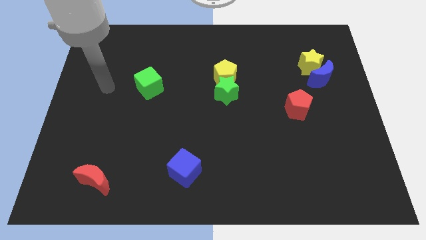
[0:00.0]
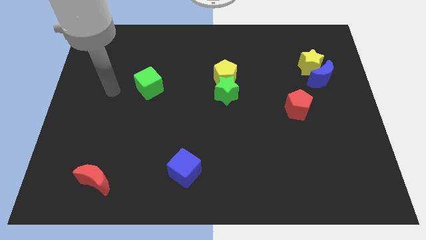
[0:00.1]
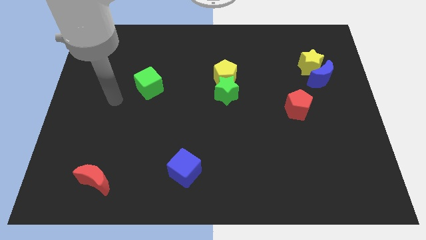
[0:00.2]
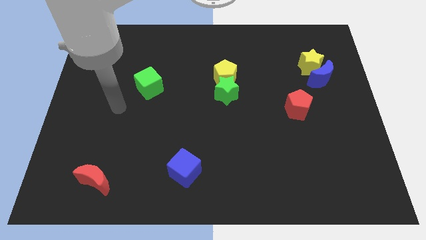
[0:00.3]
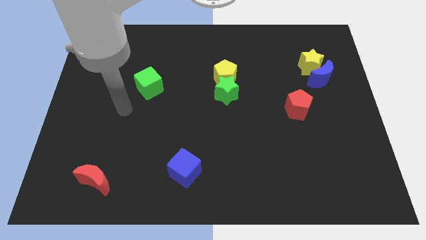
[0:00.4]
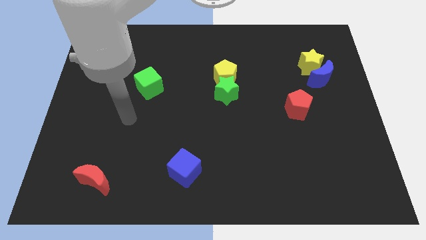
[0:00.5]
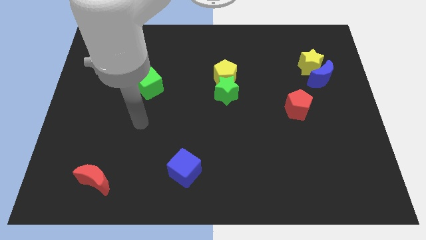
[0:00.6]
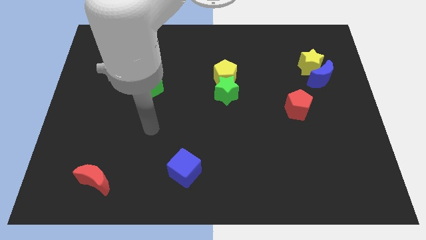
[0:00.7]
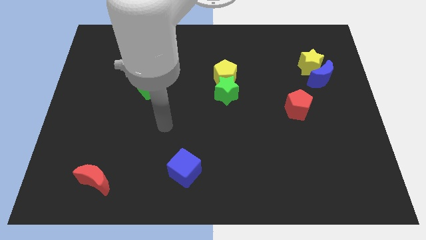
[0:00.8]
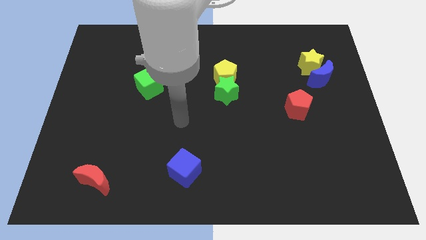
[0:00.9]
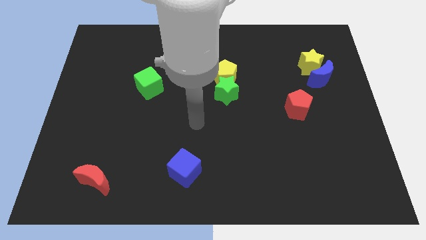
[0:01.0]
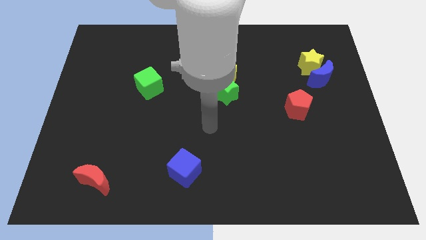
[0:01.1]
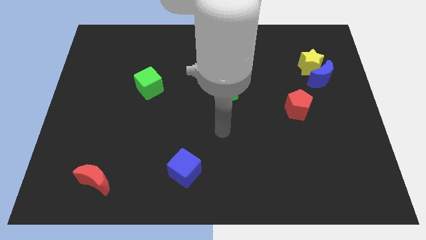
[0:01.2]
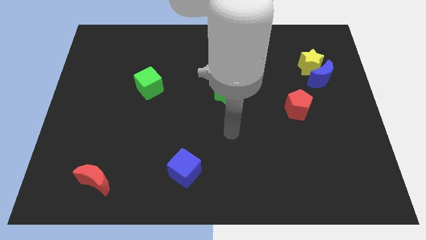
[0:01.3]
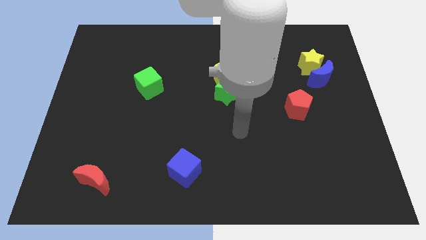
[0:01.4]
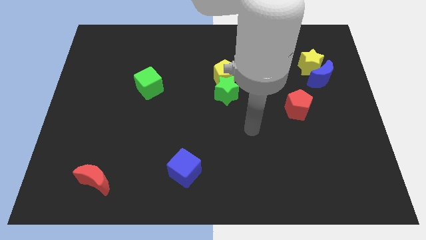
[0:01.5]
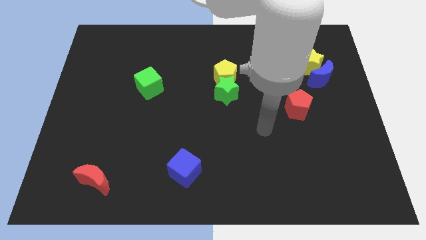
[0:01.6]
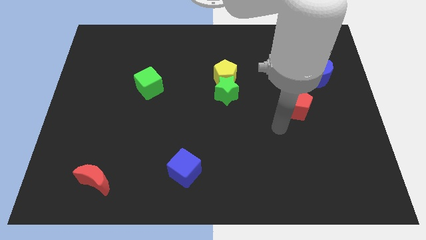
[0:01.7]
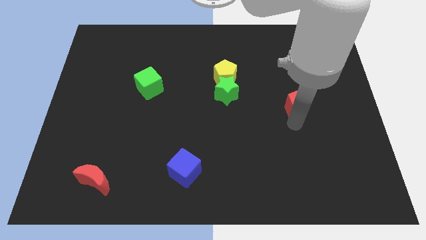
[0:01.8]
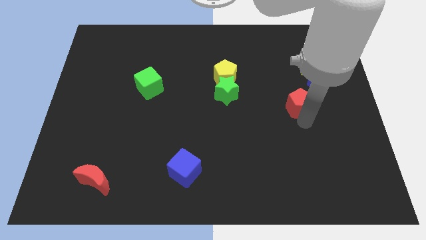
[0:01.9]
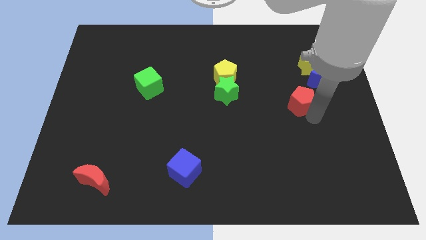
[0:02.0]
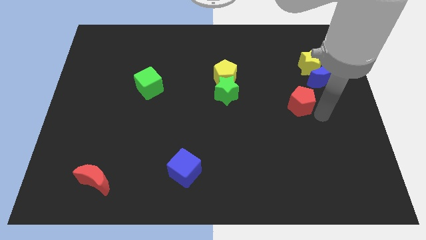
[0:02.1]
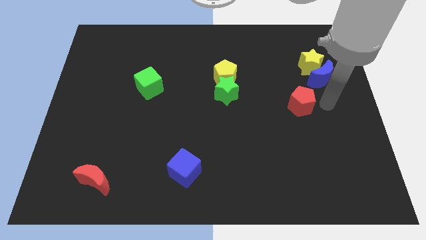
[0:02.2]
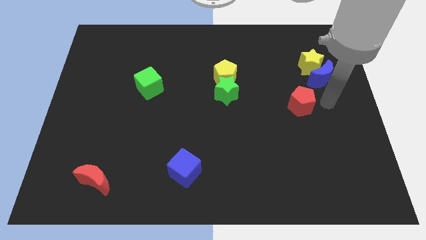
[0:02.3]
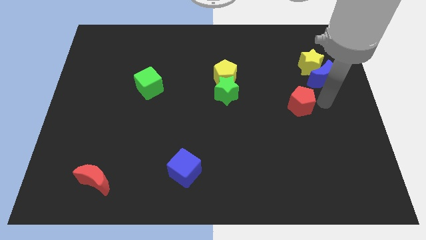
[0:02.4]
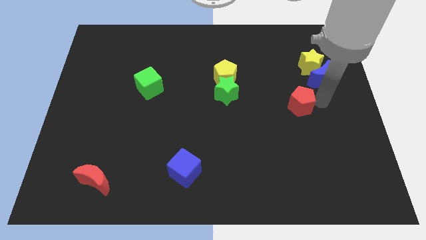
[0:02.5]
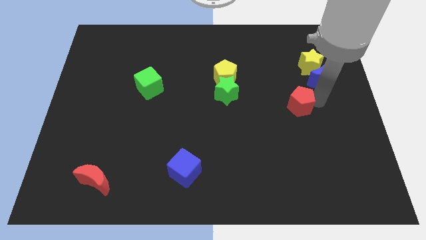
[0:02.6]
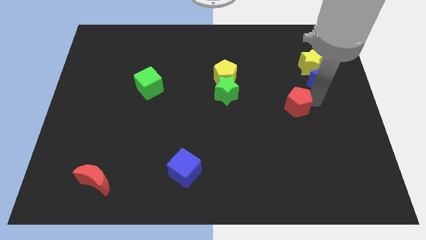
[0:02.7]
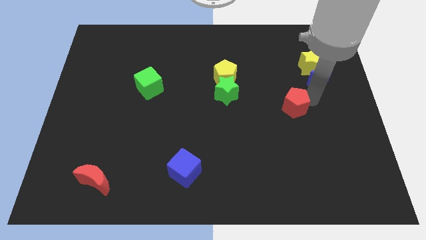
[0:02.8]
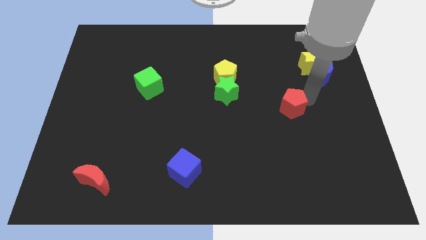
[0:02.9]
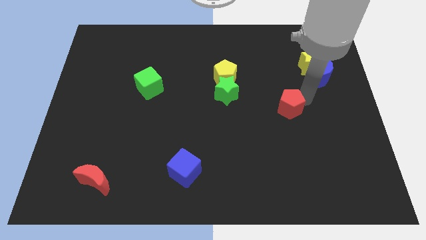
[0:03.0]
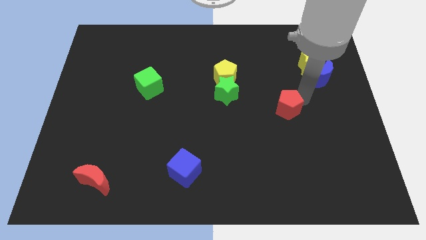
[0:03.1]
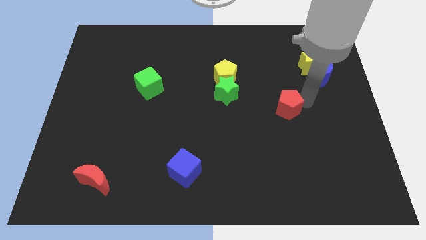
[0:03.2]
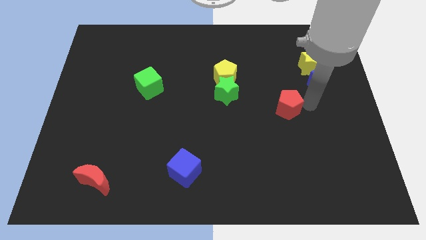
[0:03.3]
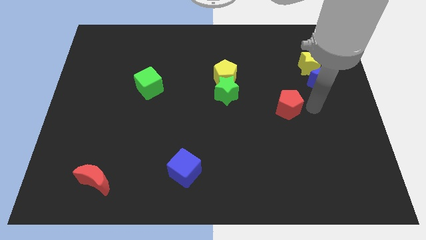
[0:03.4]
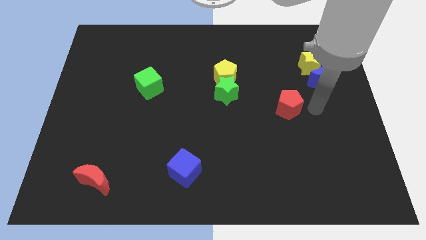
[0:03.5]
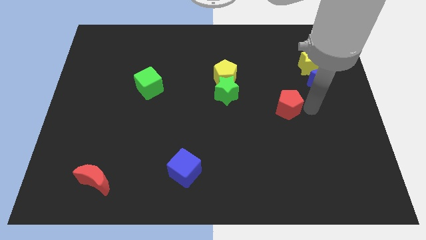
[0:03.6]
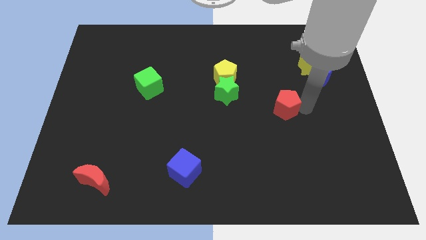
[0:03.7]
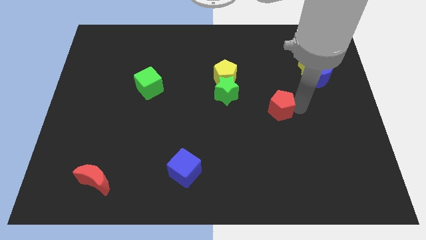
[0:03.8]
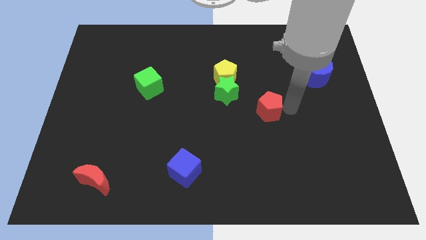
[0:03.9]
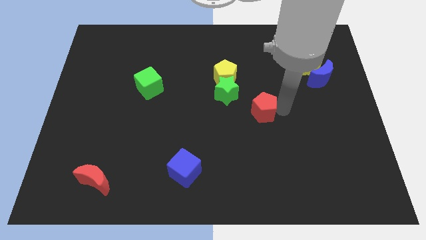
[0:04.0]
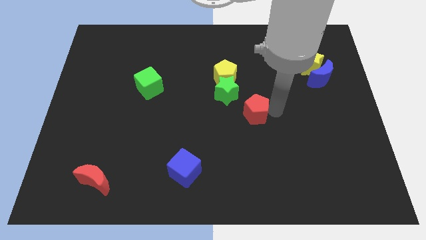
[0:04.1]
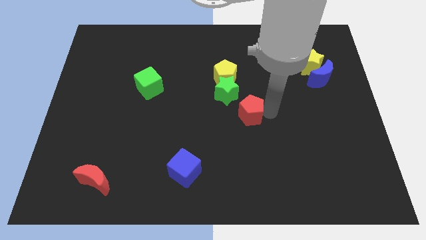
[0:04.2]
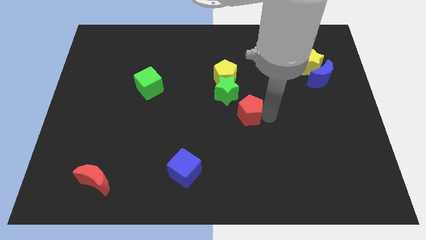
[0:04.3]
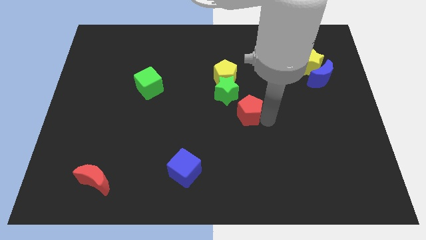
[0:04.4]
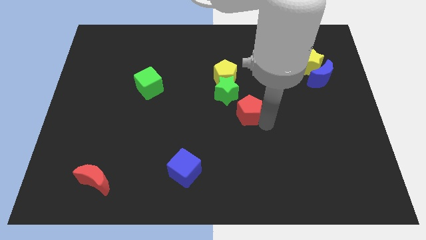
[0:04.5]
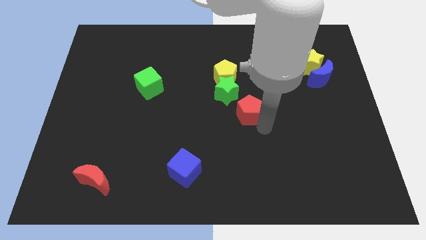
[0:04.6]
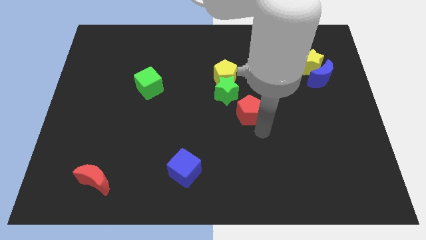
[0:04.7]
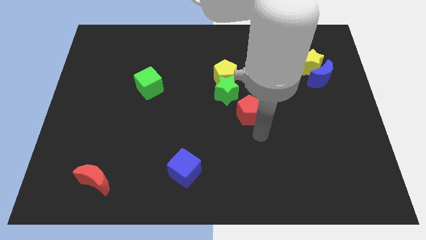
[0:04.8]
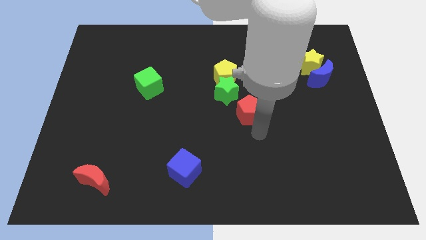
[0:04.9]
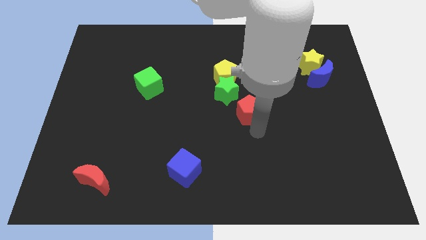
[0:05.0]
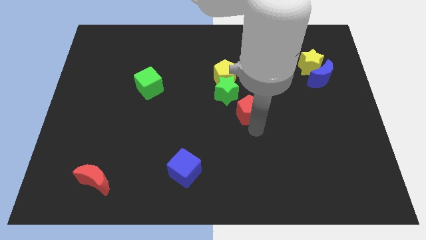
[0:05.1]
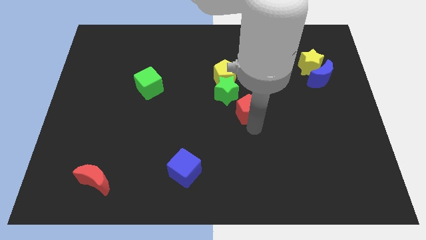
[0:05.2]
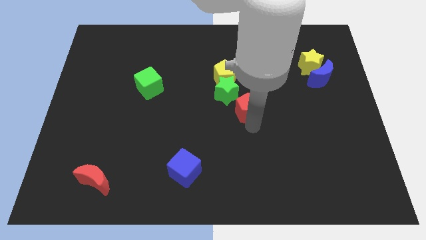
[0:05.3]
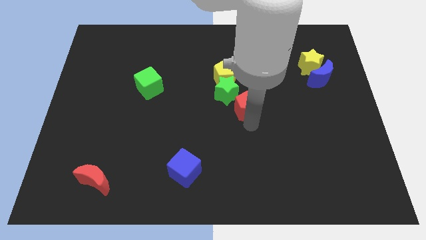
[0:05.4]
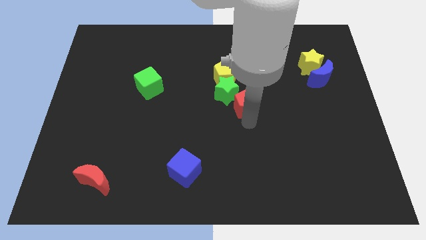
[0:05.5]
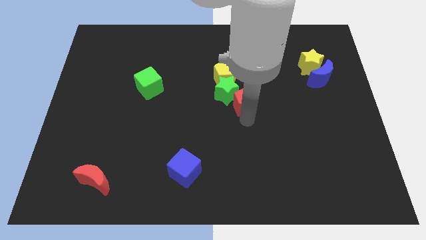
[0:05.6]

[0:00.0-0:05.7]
move the red pentagon towards the green star
